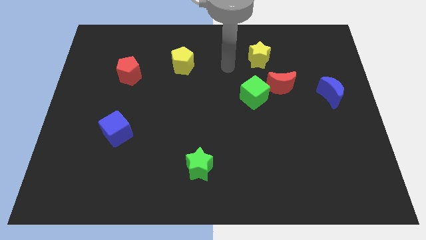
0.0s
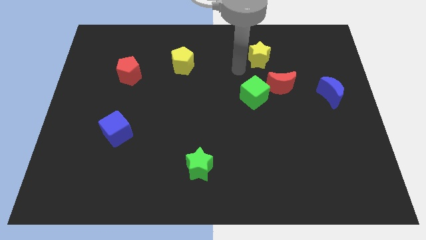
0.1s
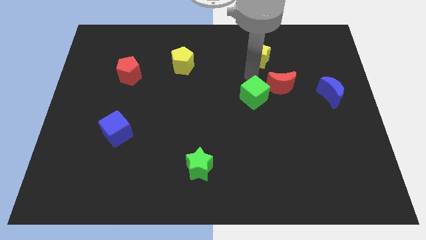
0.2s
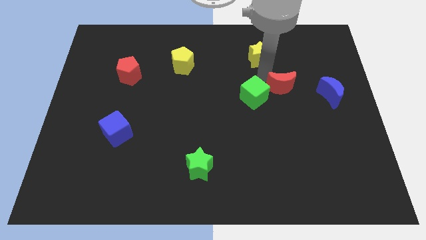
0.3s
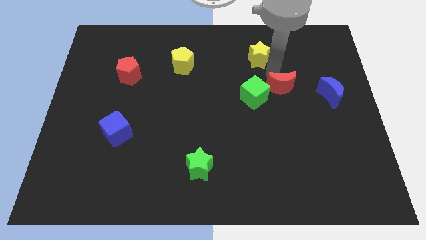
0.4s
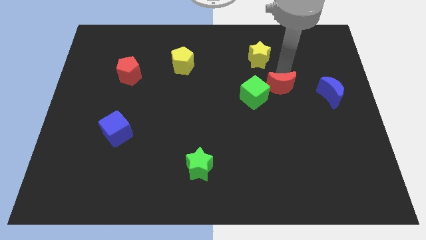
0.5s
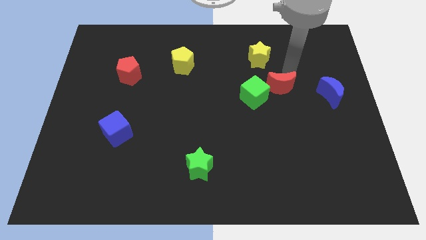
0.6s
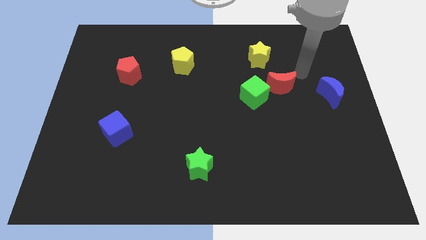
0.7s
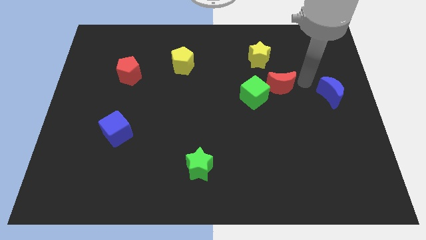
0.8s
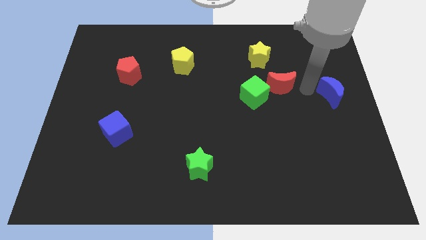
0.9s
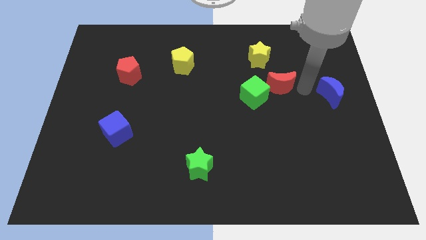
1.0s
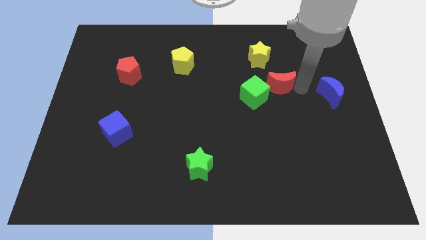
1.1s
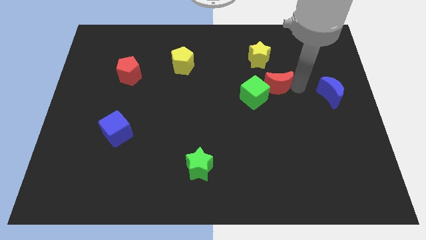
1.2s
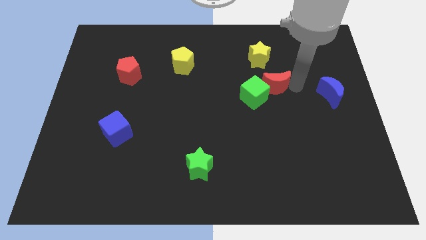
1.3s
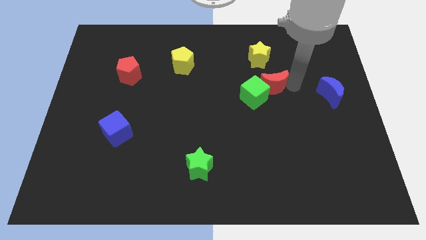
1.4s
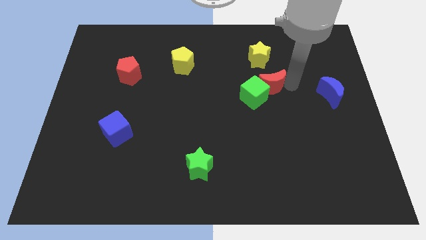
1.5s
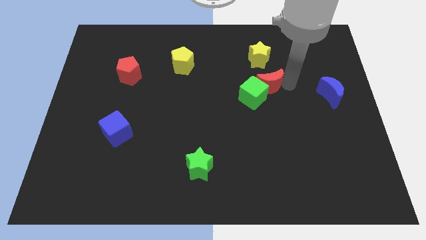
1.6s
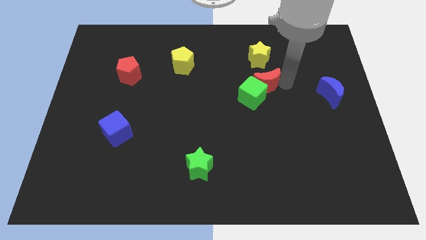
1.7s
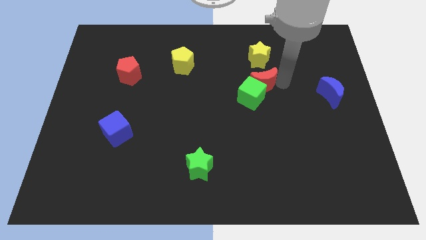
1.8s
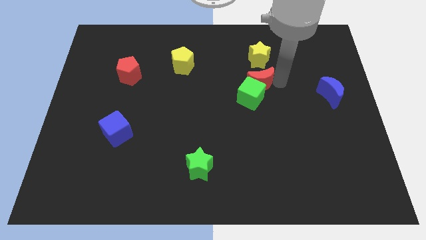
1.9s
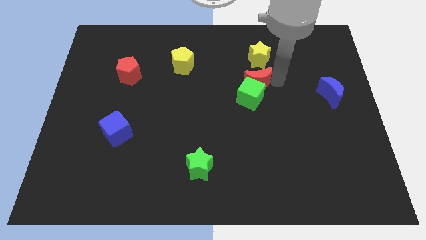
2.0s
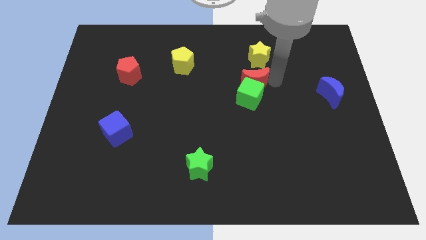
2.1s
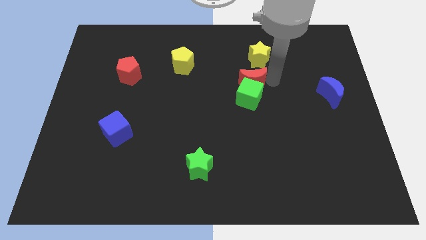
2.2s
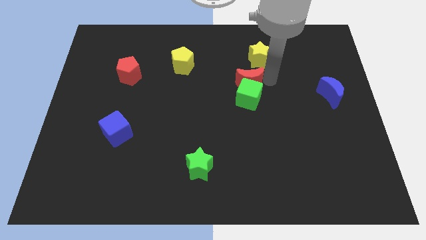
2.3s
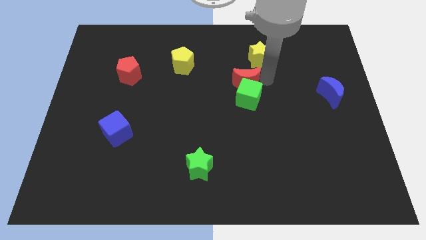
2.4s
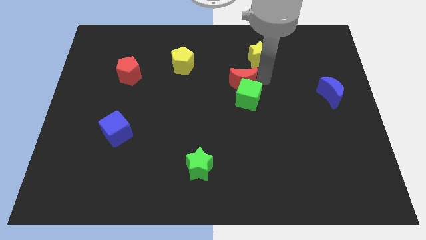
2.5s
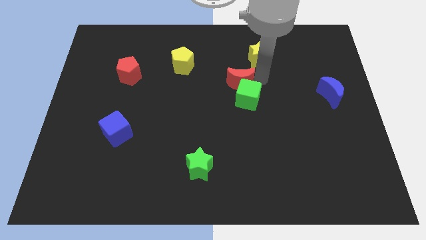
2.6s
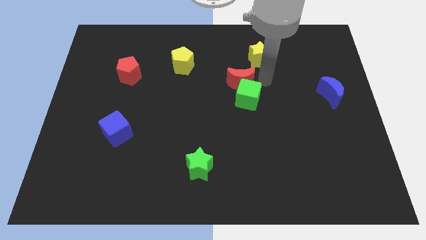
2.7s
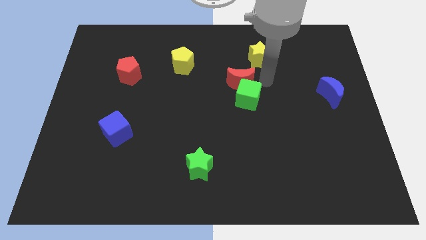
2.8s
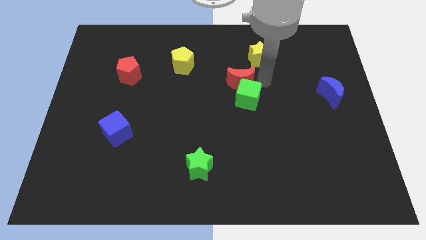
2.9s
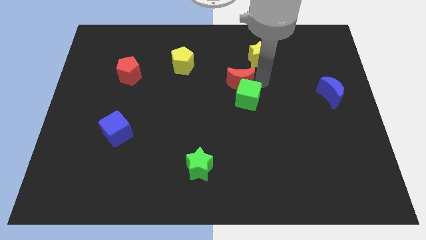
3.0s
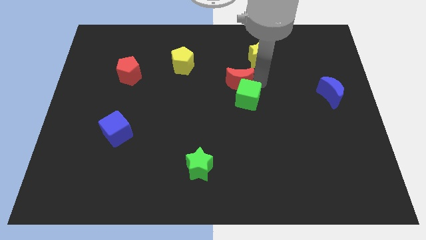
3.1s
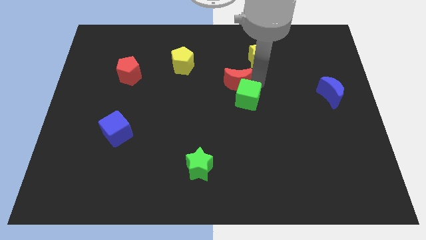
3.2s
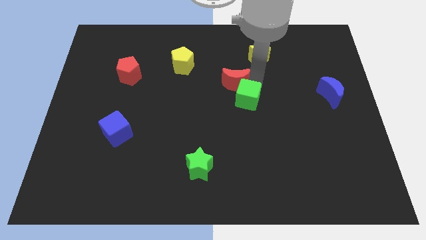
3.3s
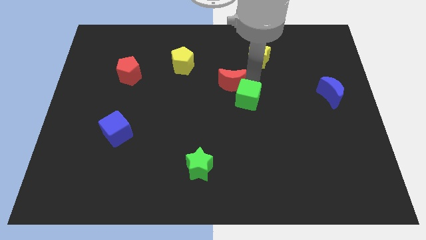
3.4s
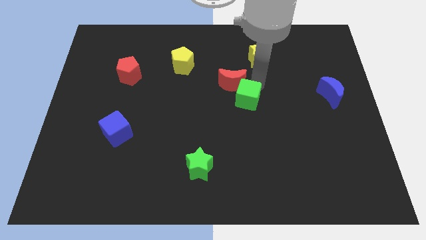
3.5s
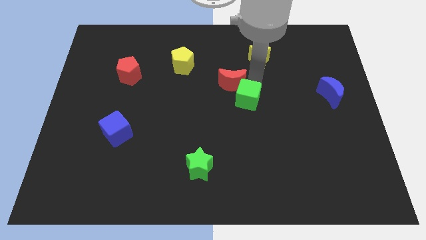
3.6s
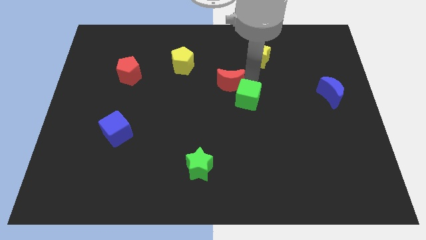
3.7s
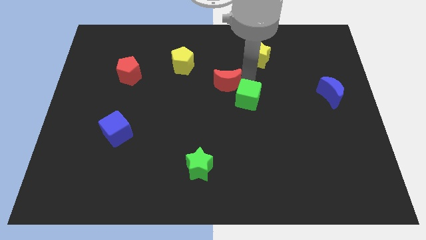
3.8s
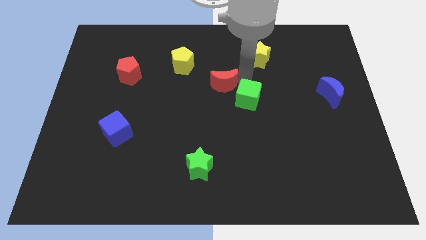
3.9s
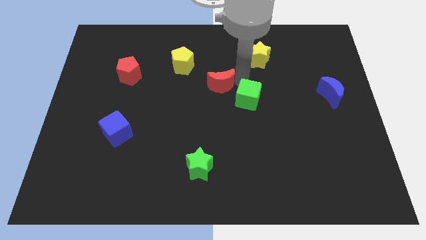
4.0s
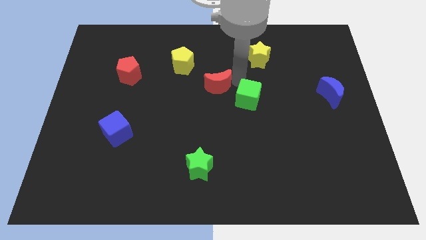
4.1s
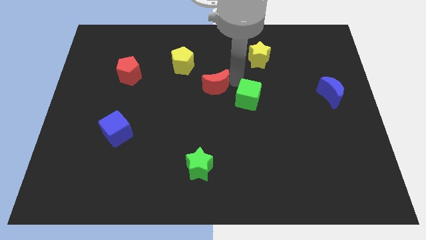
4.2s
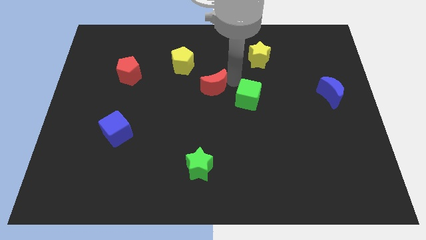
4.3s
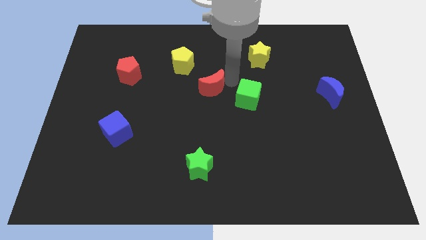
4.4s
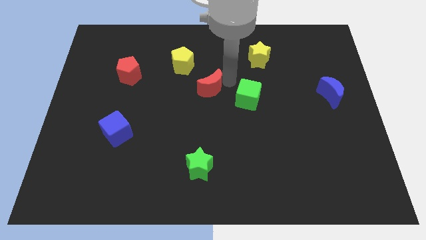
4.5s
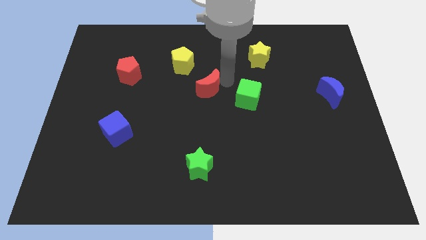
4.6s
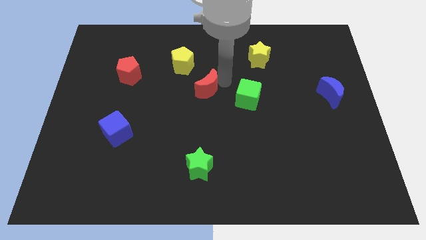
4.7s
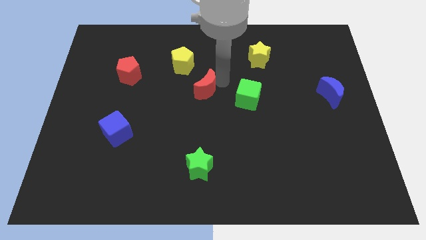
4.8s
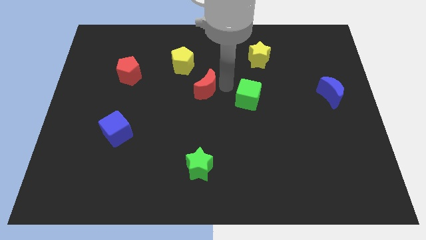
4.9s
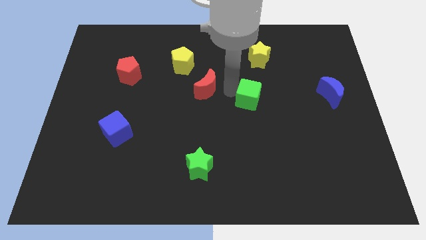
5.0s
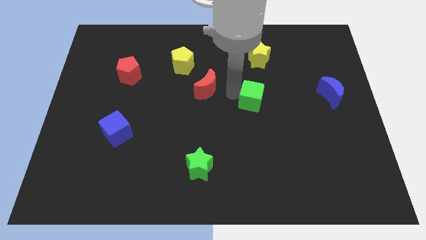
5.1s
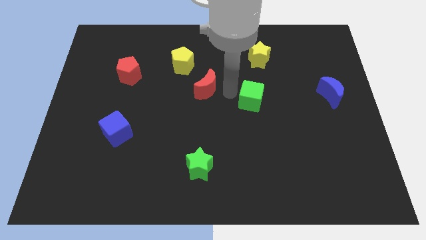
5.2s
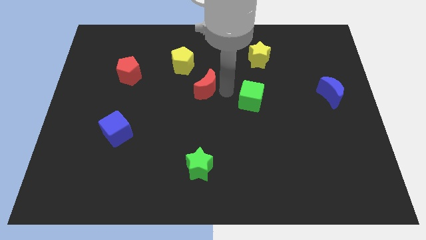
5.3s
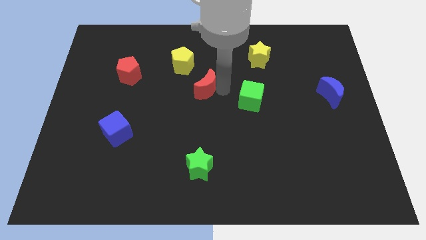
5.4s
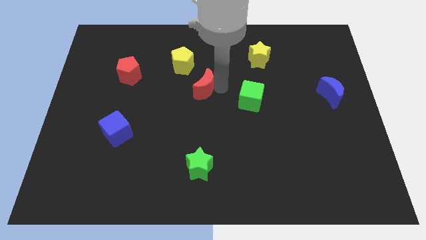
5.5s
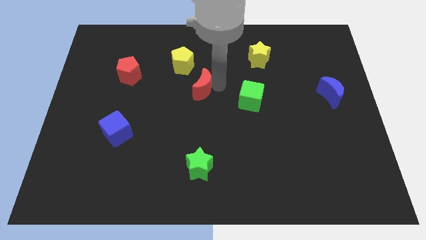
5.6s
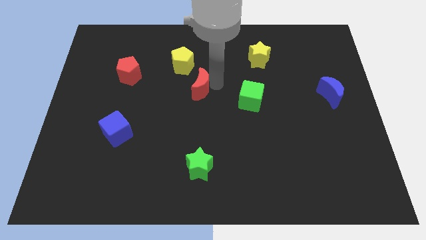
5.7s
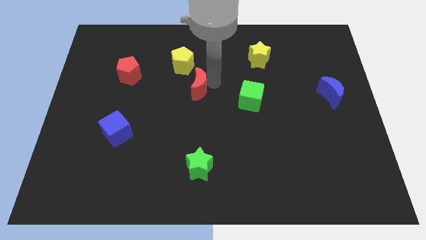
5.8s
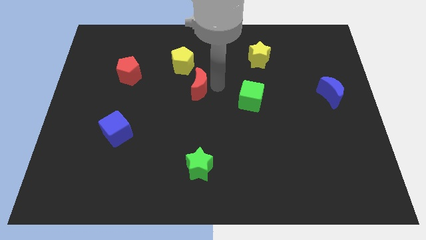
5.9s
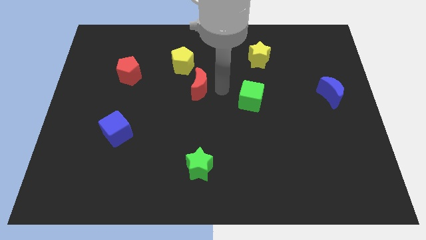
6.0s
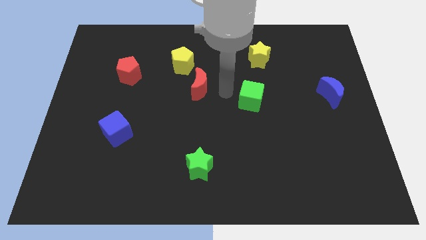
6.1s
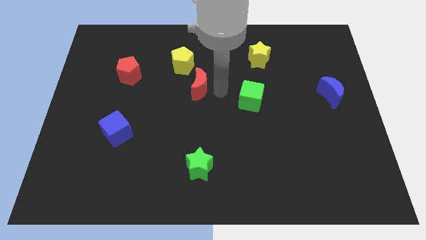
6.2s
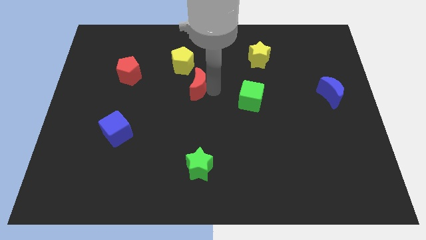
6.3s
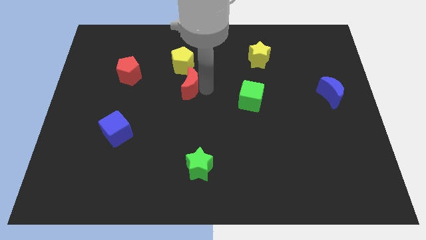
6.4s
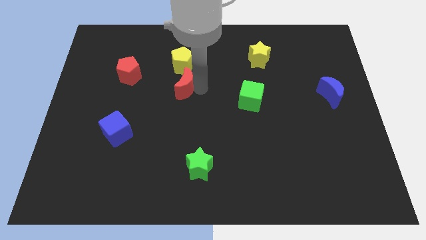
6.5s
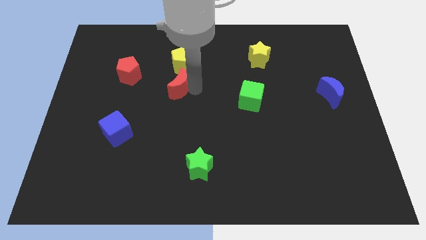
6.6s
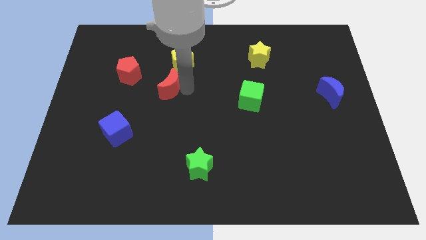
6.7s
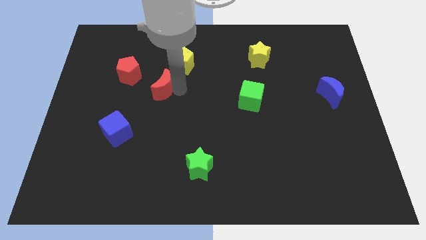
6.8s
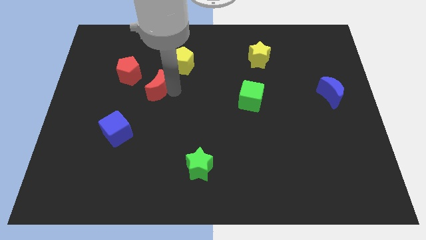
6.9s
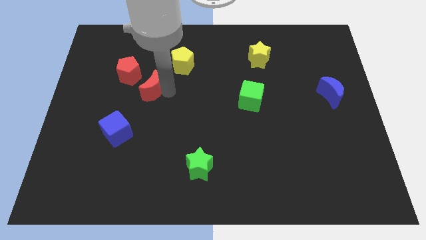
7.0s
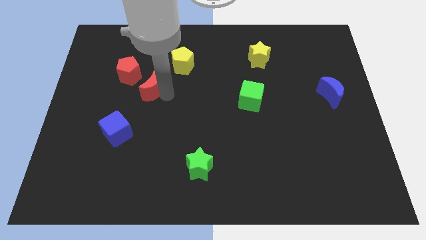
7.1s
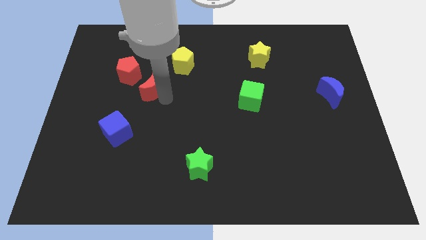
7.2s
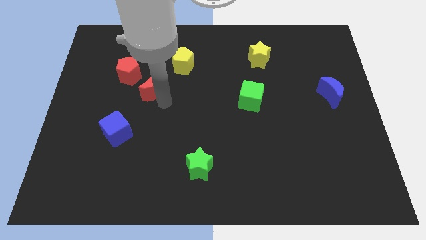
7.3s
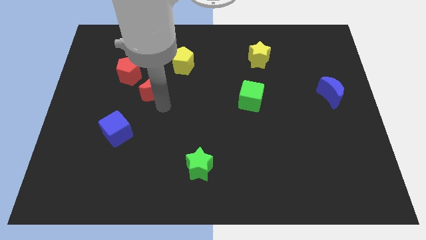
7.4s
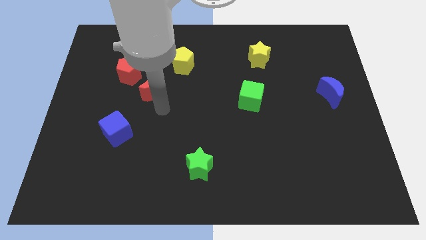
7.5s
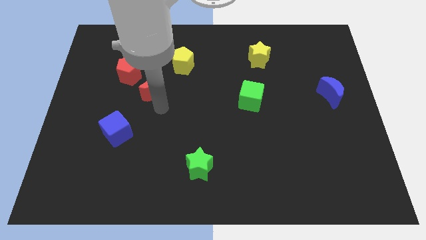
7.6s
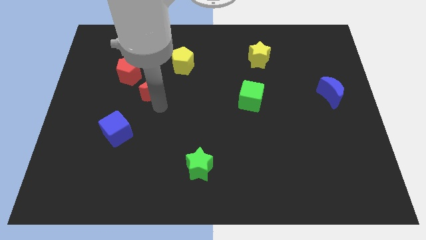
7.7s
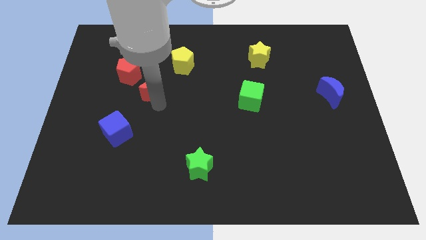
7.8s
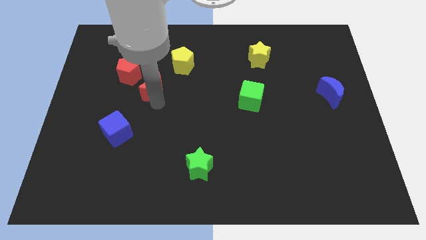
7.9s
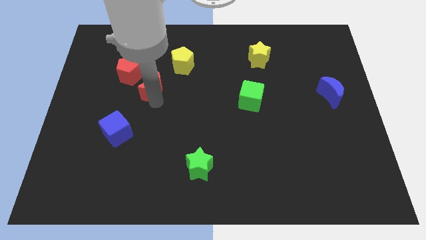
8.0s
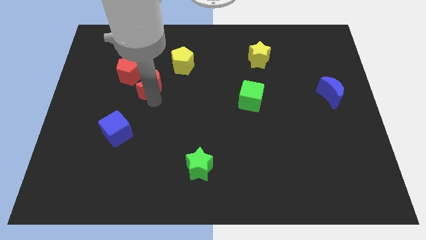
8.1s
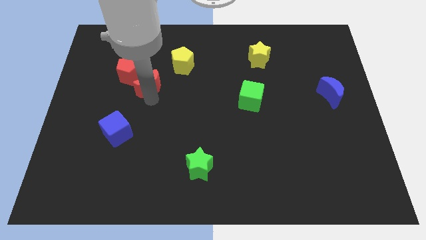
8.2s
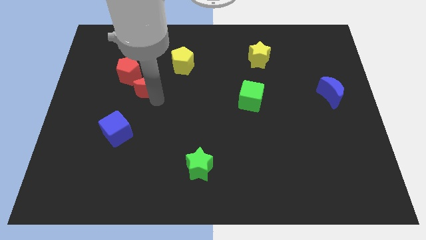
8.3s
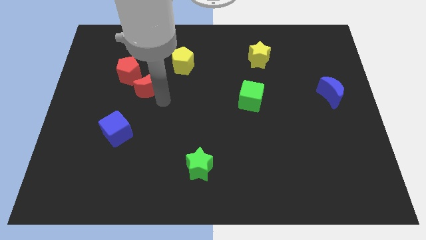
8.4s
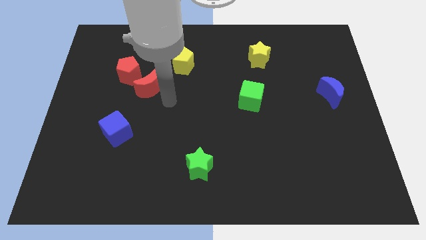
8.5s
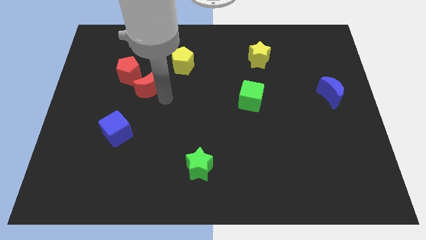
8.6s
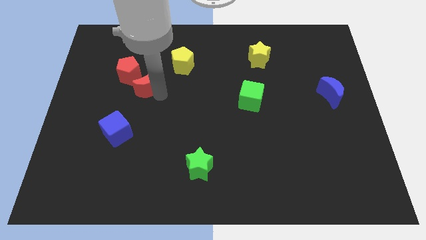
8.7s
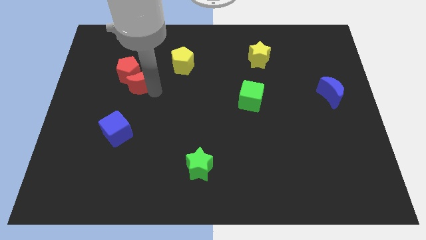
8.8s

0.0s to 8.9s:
slide the red moon next to the red pentagon
